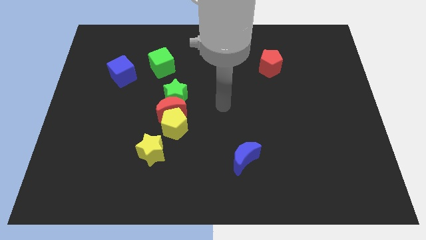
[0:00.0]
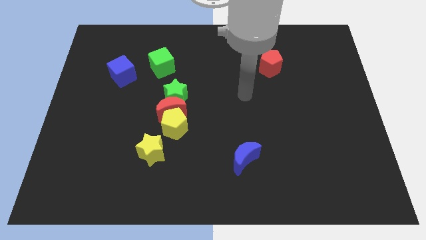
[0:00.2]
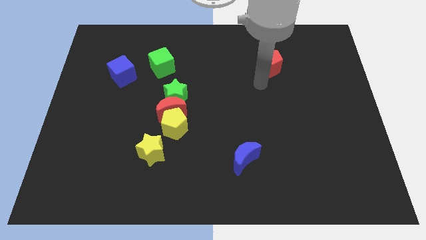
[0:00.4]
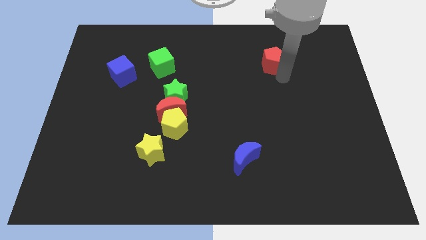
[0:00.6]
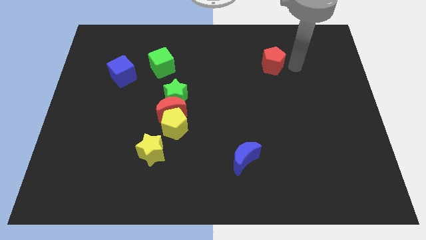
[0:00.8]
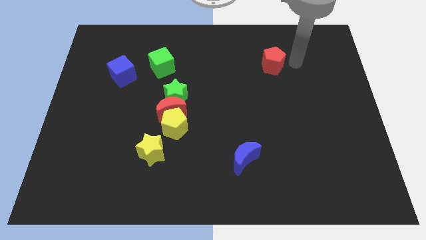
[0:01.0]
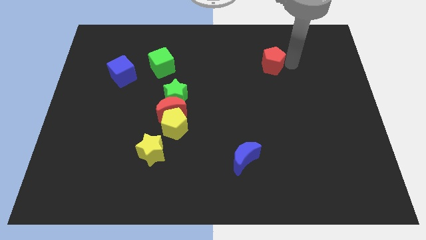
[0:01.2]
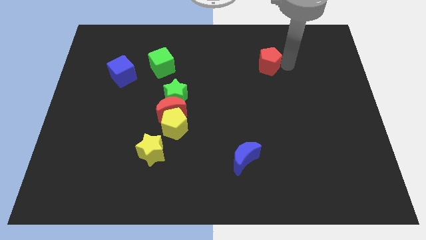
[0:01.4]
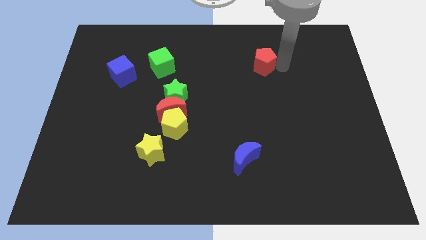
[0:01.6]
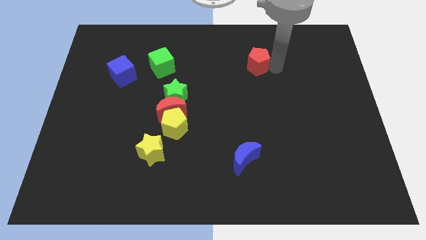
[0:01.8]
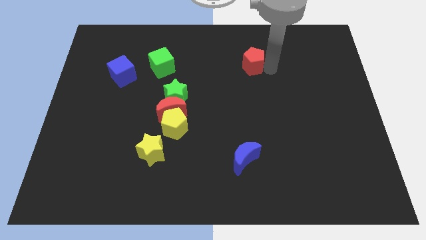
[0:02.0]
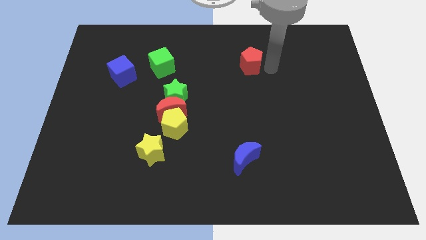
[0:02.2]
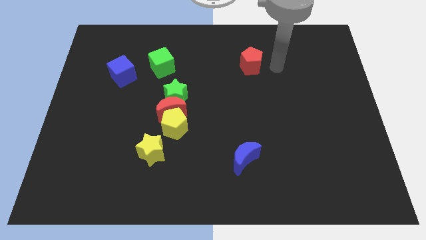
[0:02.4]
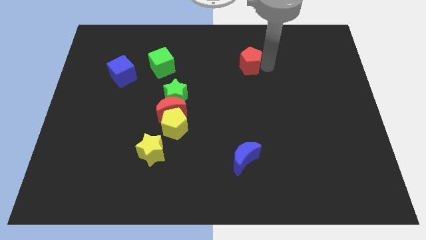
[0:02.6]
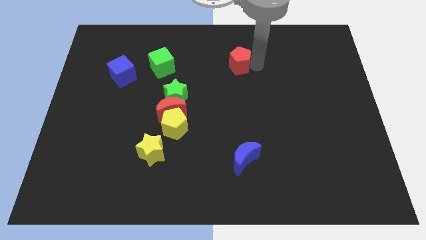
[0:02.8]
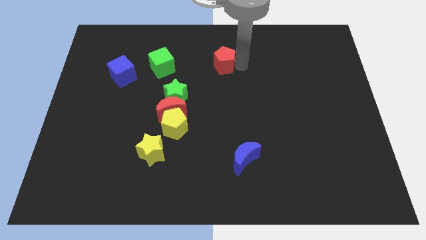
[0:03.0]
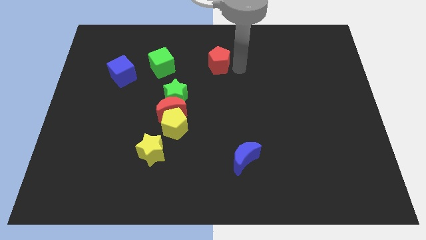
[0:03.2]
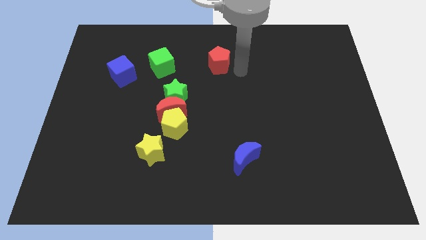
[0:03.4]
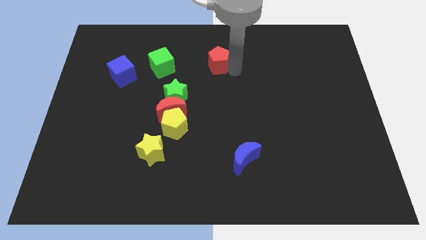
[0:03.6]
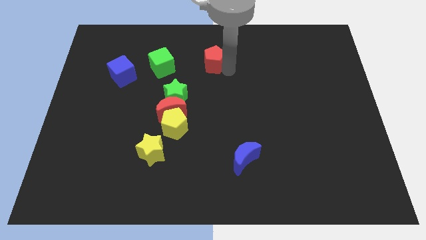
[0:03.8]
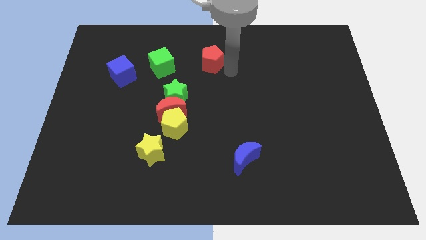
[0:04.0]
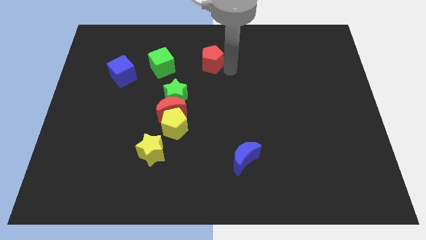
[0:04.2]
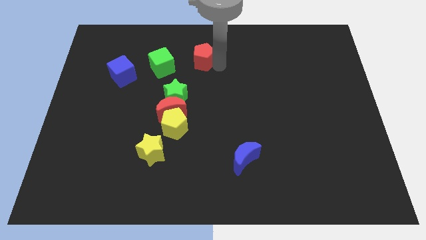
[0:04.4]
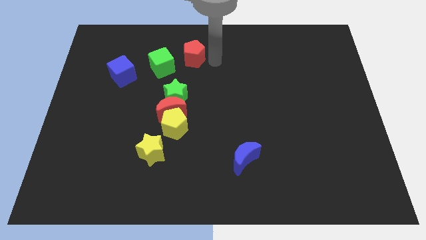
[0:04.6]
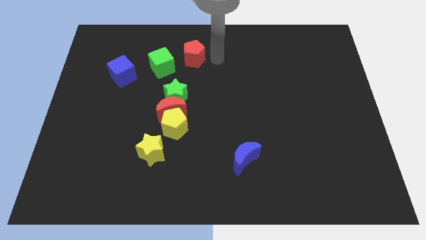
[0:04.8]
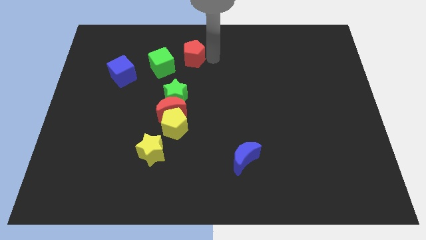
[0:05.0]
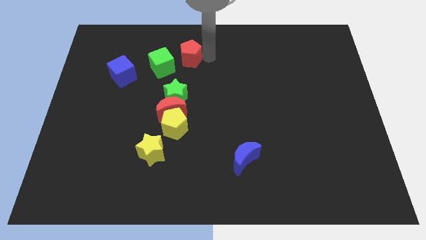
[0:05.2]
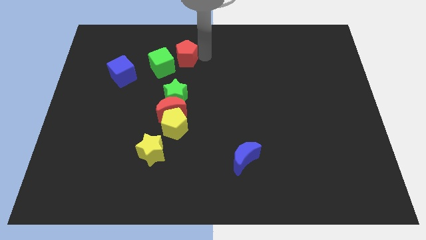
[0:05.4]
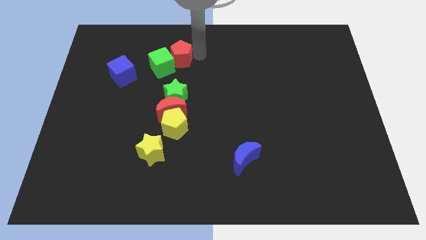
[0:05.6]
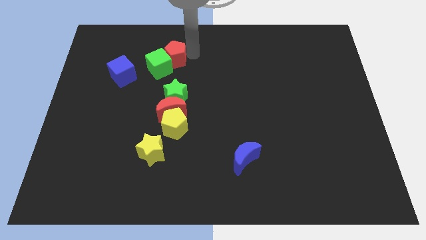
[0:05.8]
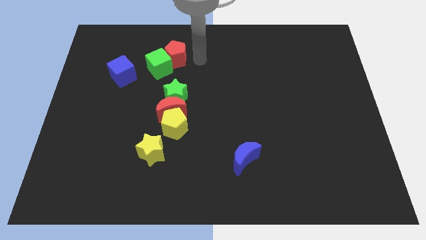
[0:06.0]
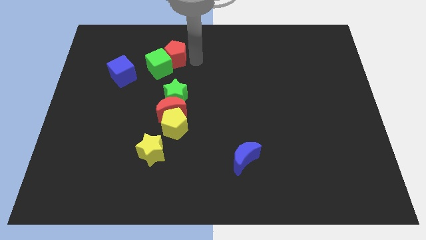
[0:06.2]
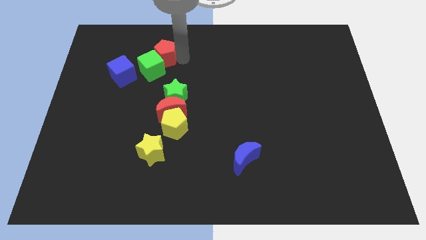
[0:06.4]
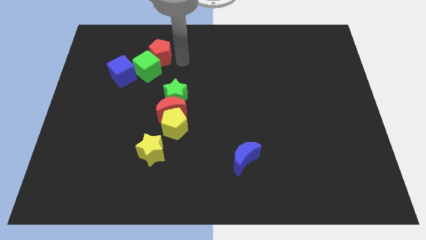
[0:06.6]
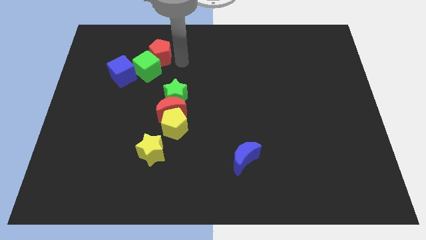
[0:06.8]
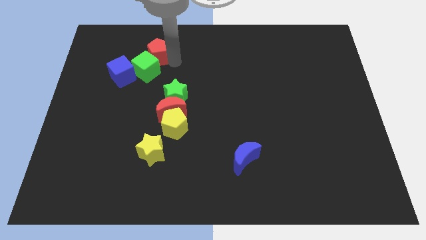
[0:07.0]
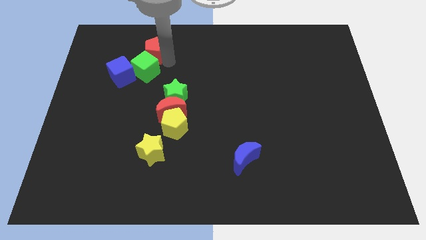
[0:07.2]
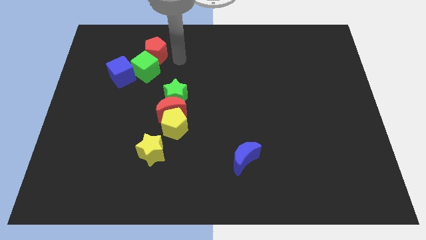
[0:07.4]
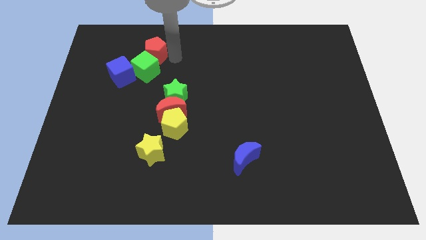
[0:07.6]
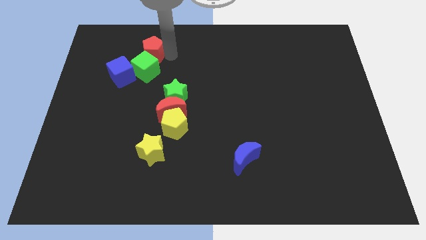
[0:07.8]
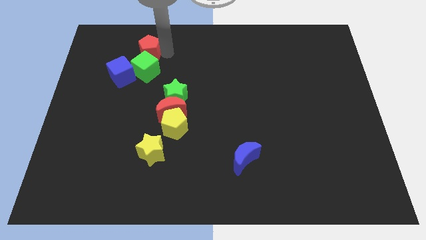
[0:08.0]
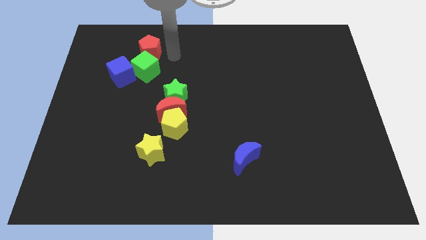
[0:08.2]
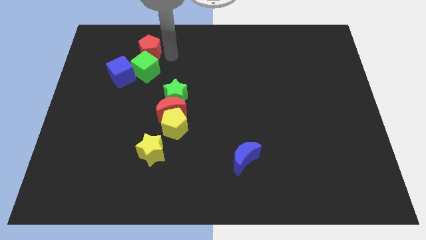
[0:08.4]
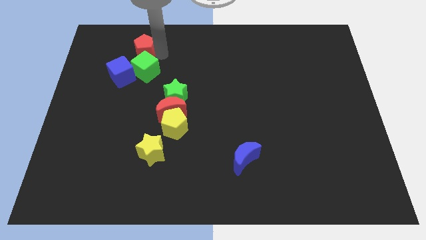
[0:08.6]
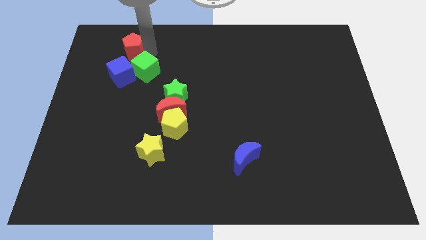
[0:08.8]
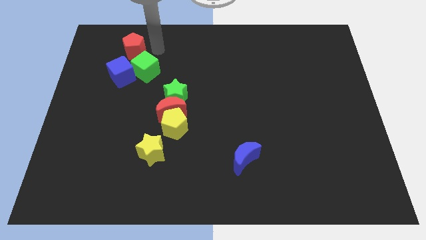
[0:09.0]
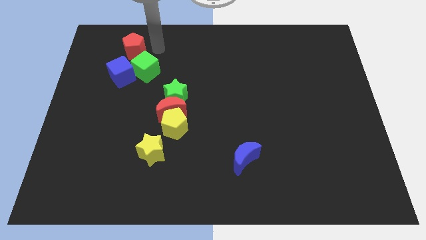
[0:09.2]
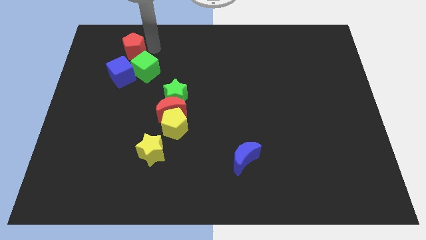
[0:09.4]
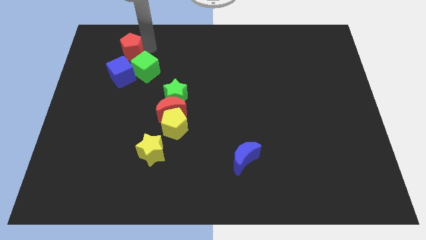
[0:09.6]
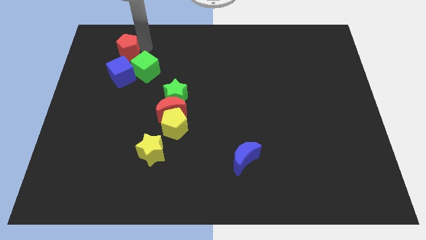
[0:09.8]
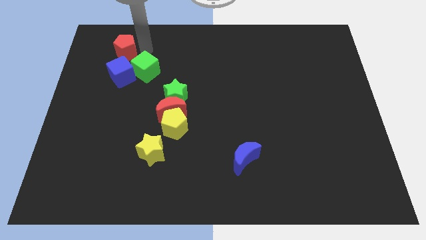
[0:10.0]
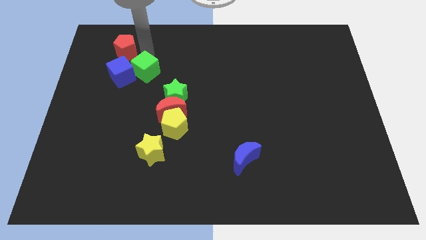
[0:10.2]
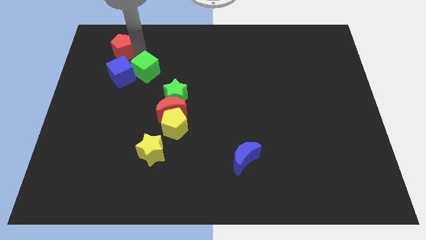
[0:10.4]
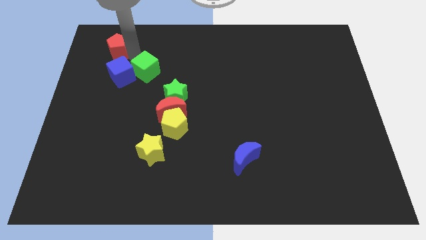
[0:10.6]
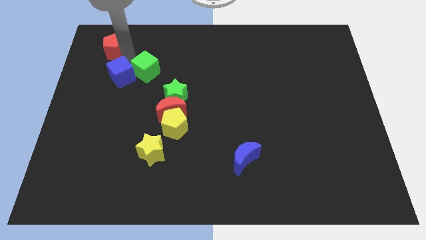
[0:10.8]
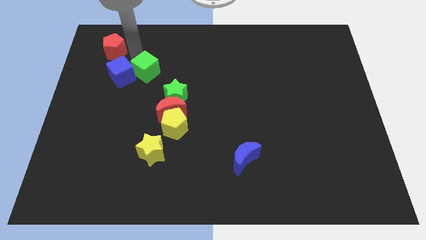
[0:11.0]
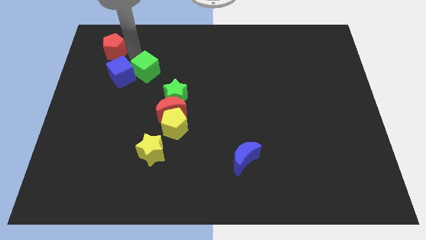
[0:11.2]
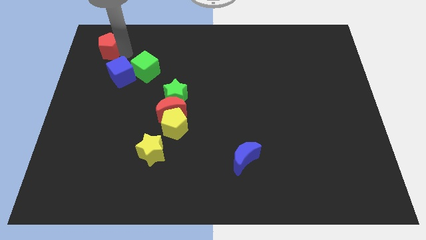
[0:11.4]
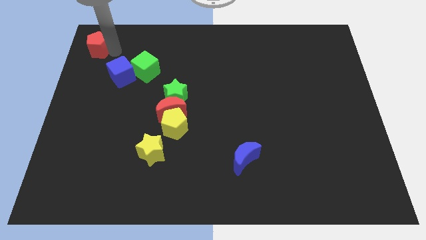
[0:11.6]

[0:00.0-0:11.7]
push the red pentagon to the top left corner

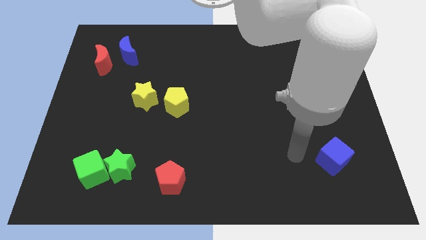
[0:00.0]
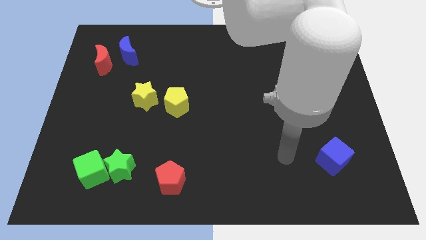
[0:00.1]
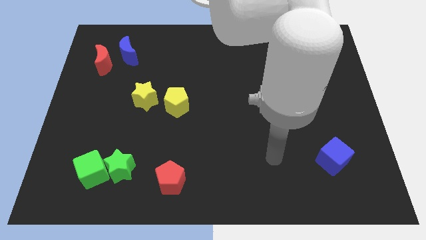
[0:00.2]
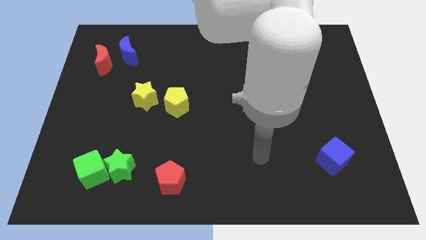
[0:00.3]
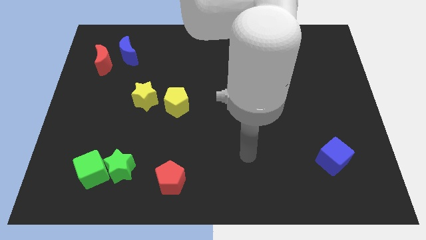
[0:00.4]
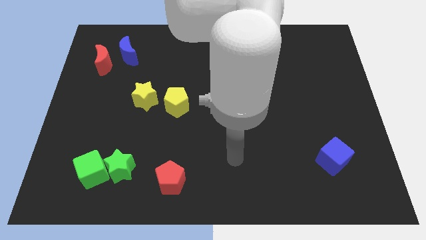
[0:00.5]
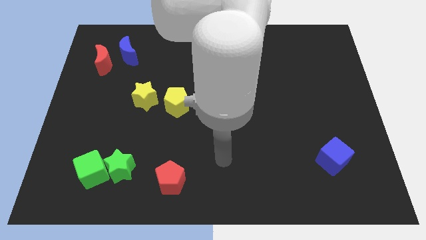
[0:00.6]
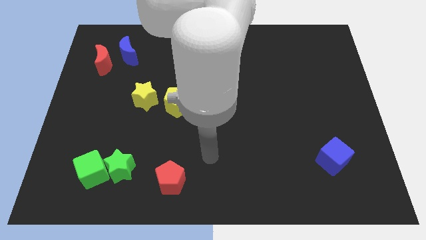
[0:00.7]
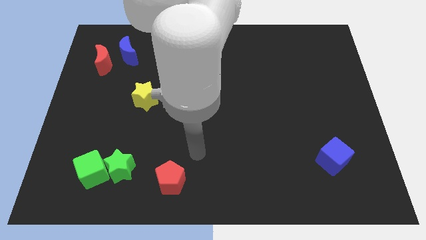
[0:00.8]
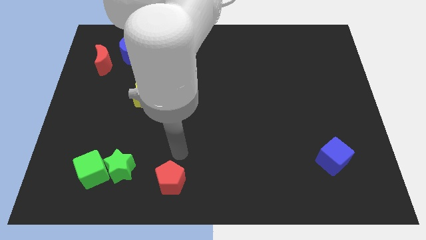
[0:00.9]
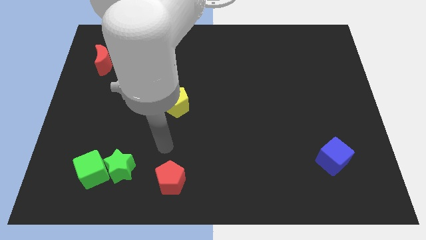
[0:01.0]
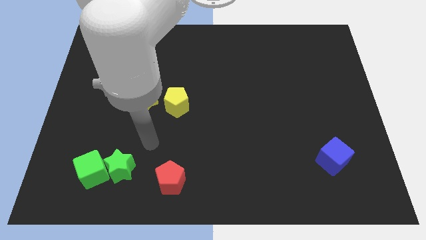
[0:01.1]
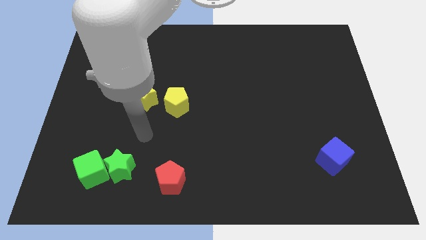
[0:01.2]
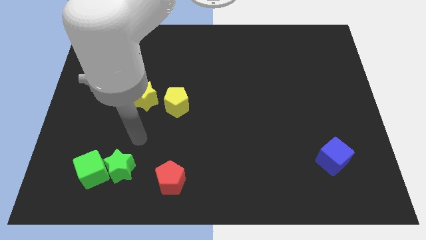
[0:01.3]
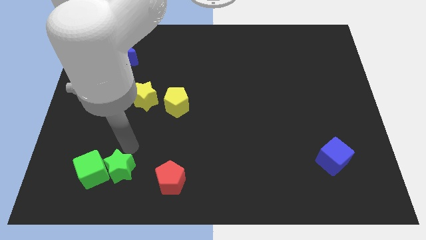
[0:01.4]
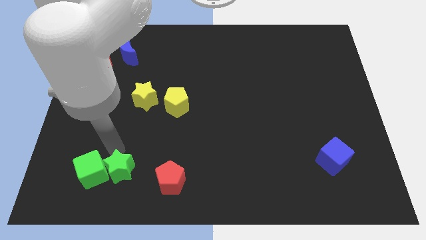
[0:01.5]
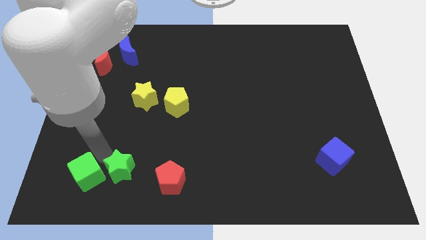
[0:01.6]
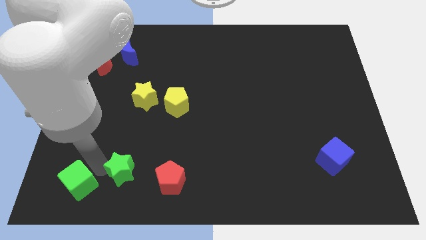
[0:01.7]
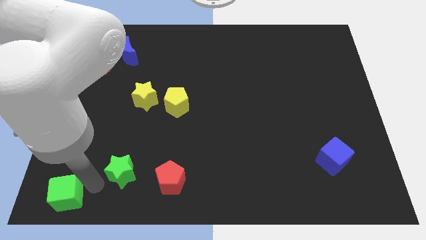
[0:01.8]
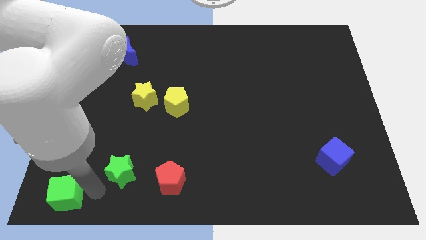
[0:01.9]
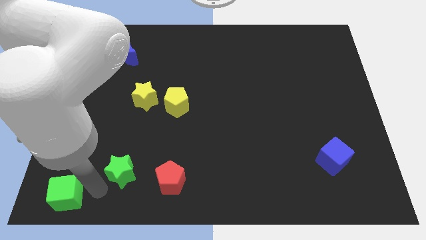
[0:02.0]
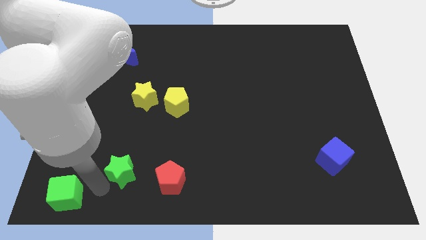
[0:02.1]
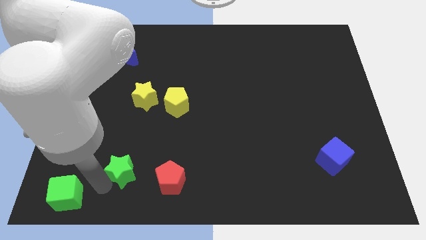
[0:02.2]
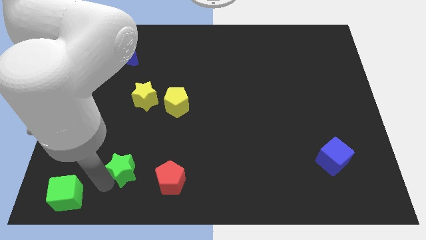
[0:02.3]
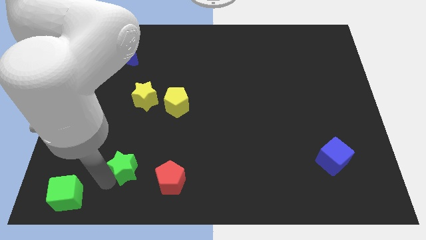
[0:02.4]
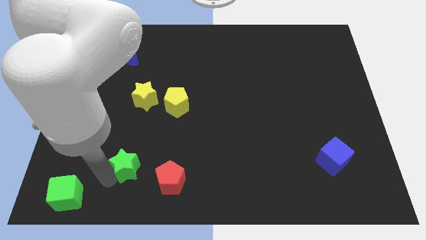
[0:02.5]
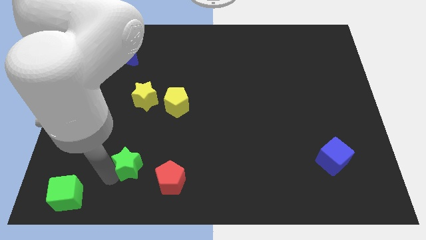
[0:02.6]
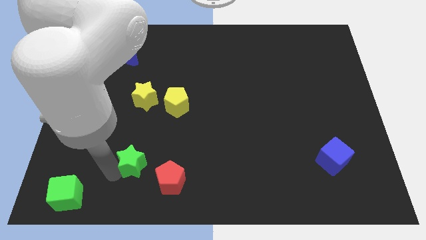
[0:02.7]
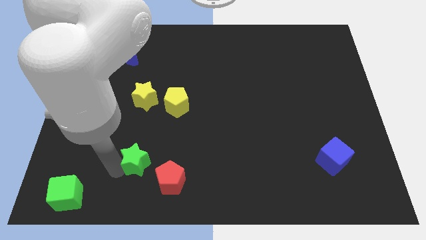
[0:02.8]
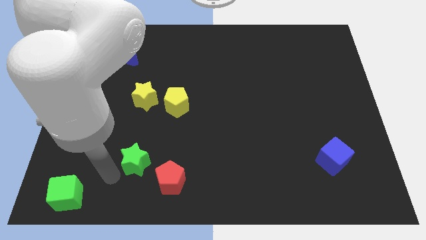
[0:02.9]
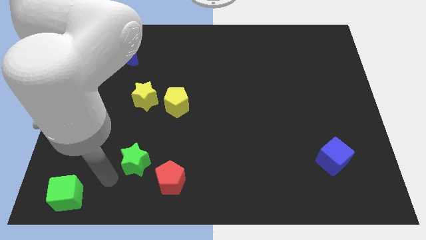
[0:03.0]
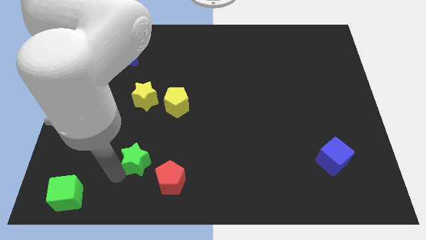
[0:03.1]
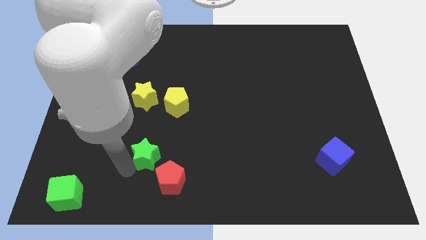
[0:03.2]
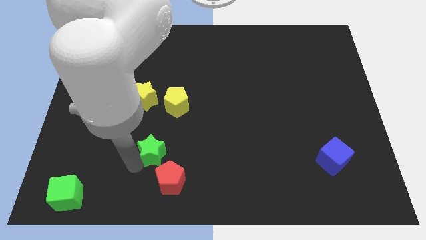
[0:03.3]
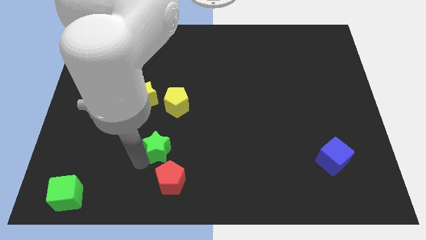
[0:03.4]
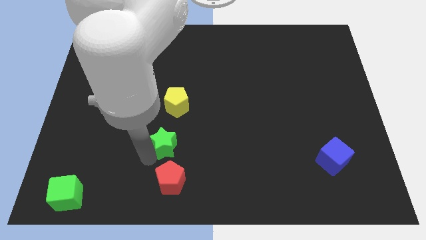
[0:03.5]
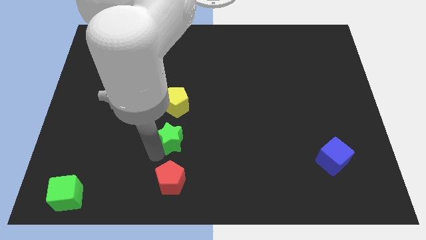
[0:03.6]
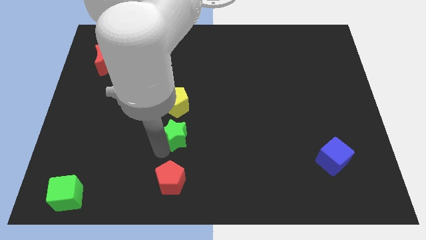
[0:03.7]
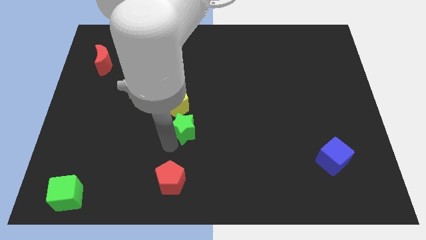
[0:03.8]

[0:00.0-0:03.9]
move the green star to the center of the board
